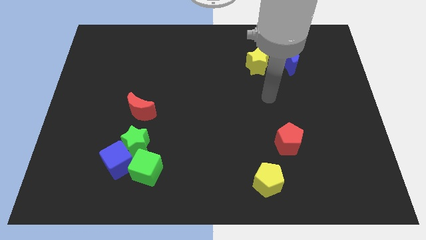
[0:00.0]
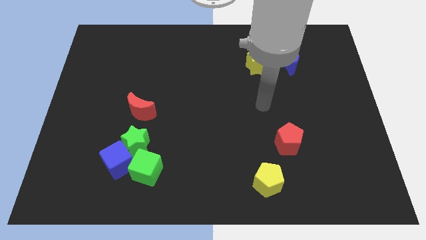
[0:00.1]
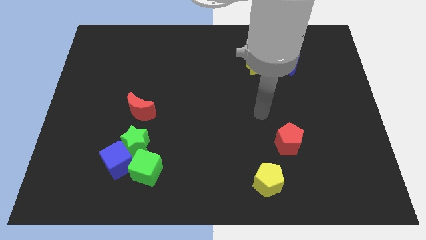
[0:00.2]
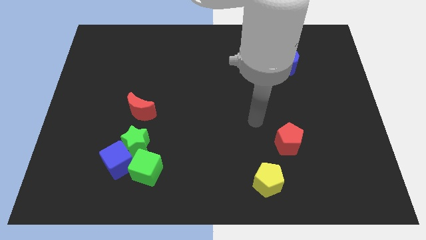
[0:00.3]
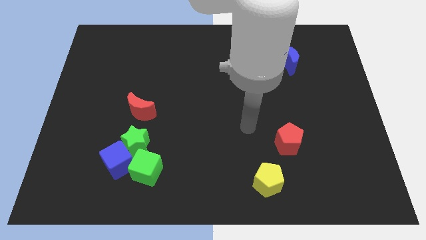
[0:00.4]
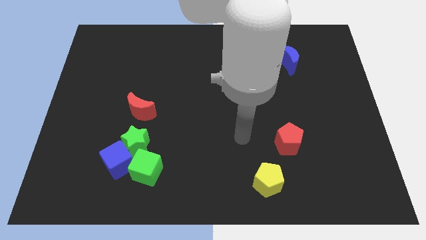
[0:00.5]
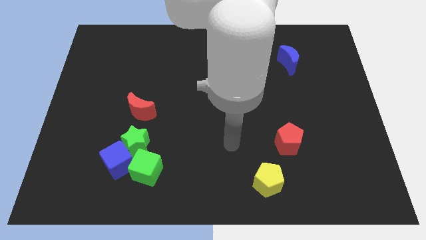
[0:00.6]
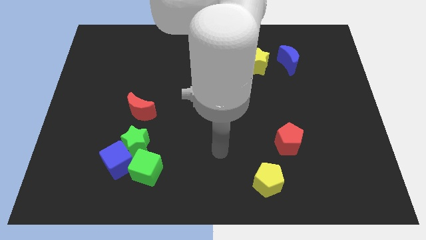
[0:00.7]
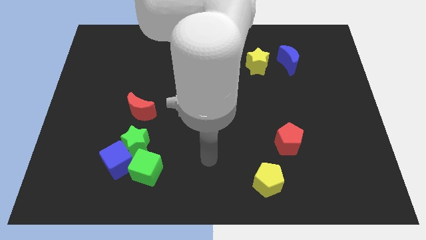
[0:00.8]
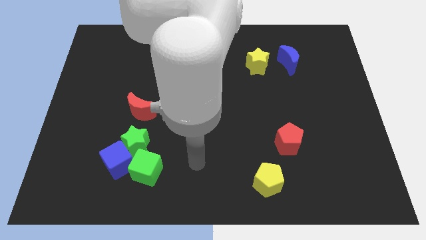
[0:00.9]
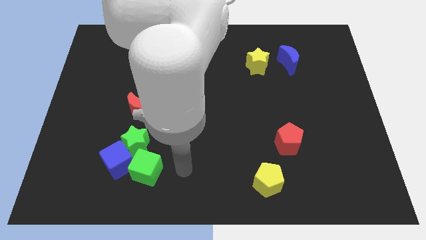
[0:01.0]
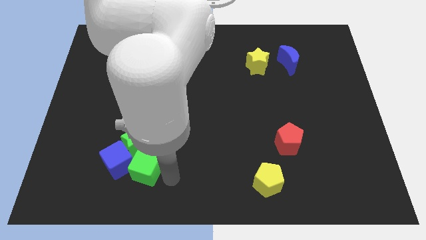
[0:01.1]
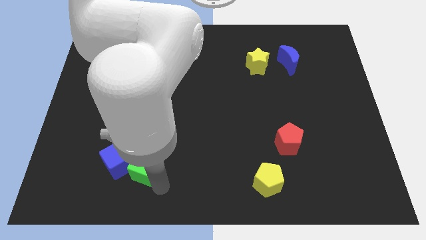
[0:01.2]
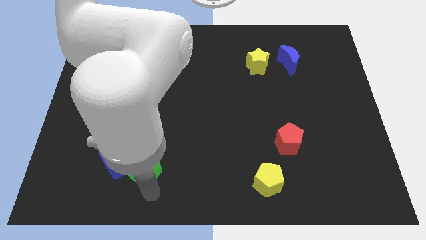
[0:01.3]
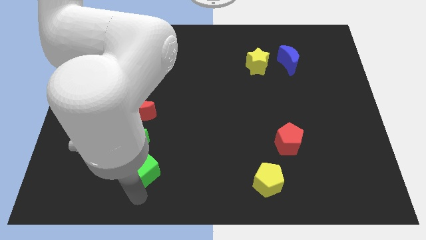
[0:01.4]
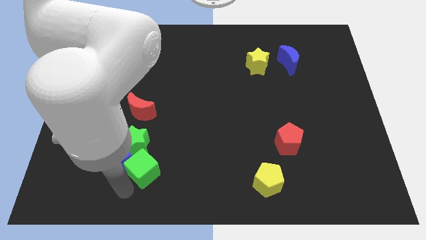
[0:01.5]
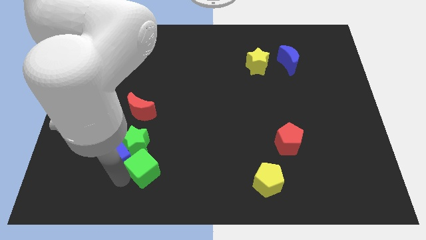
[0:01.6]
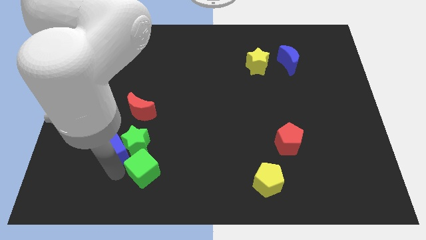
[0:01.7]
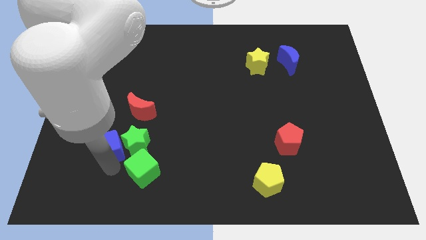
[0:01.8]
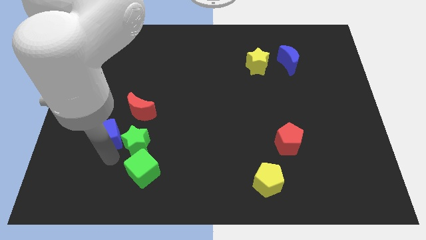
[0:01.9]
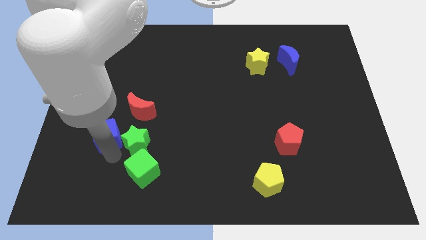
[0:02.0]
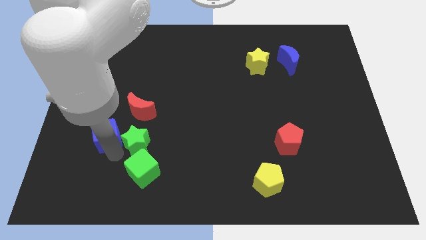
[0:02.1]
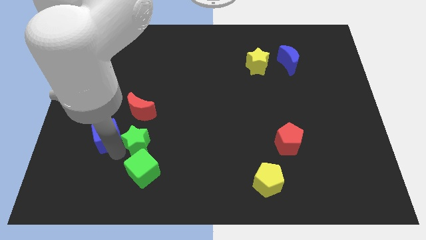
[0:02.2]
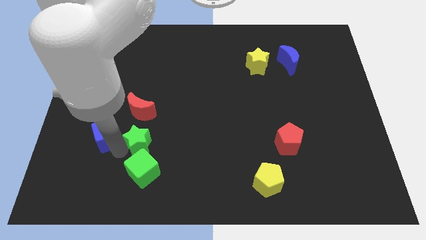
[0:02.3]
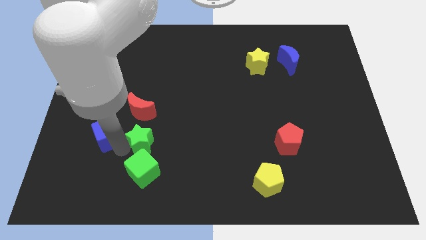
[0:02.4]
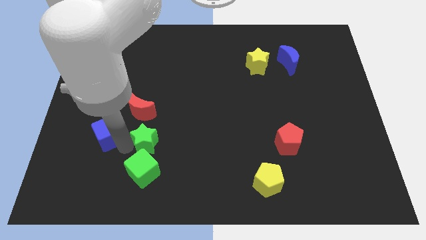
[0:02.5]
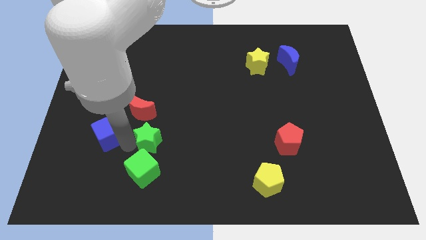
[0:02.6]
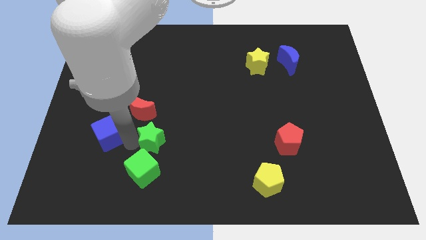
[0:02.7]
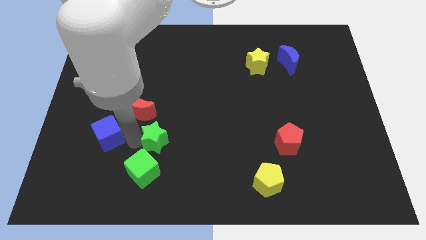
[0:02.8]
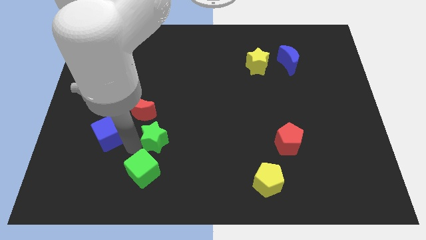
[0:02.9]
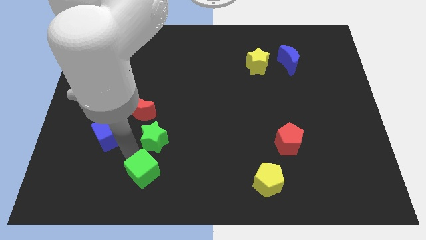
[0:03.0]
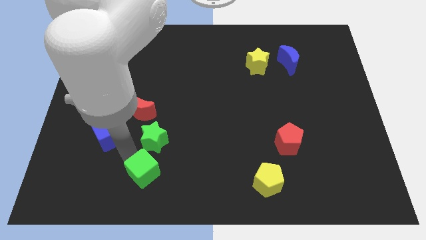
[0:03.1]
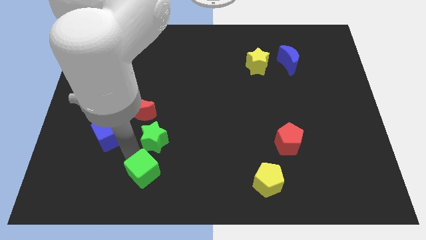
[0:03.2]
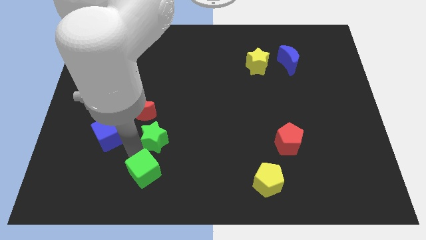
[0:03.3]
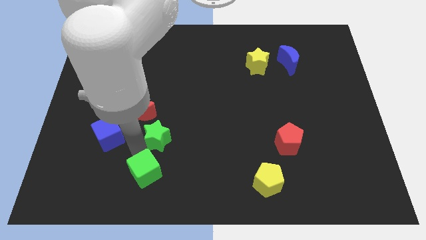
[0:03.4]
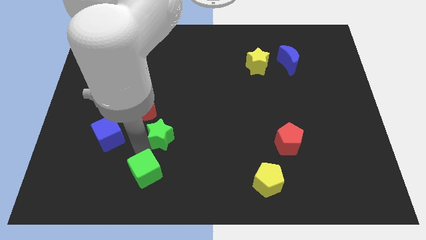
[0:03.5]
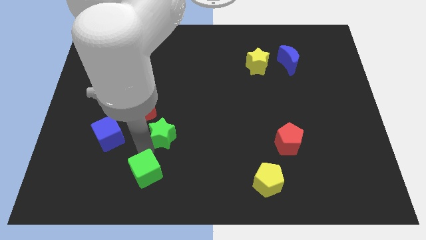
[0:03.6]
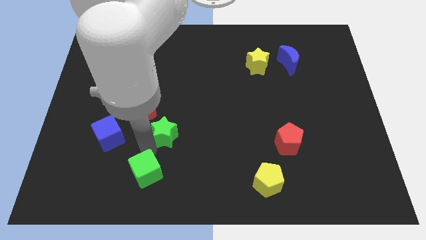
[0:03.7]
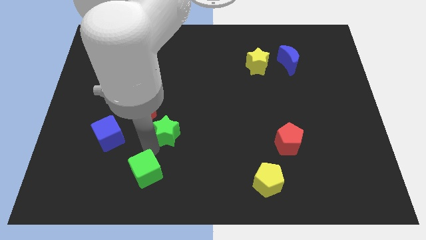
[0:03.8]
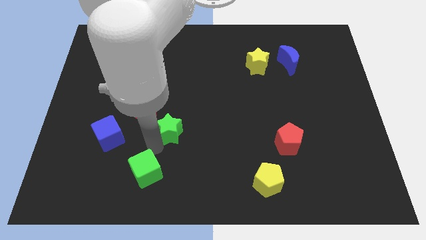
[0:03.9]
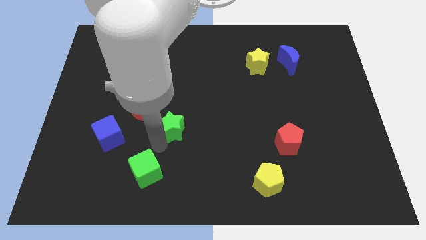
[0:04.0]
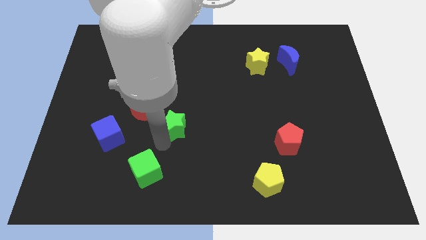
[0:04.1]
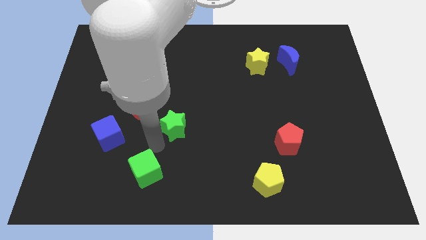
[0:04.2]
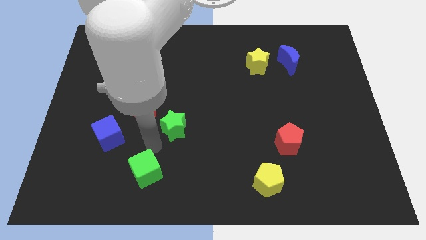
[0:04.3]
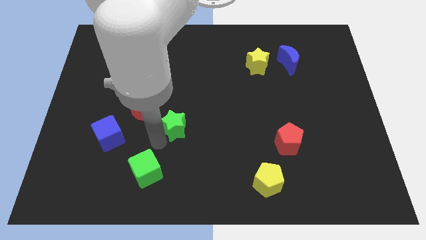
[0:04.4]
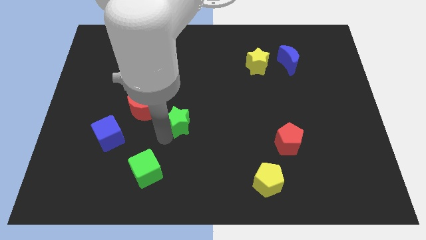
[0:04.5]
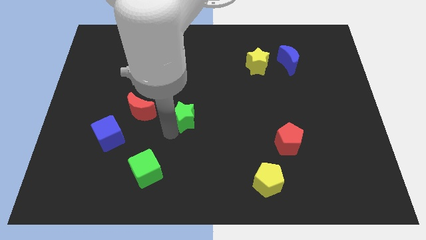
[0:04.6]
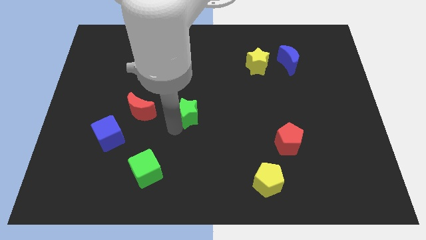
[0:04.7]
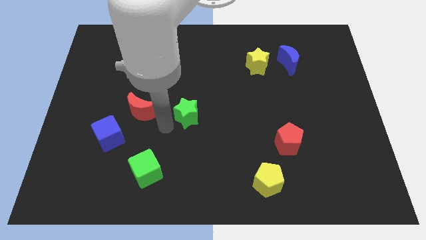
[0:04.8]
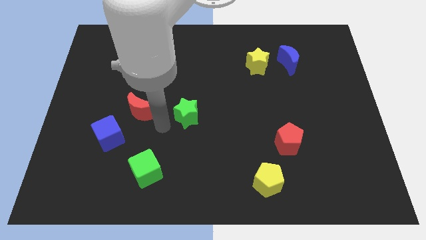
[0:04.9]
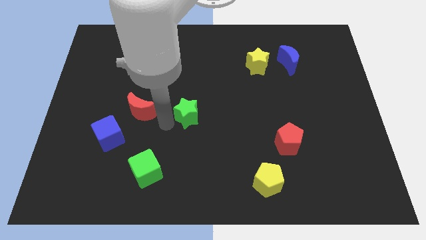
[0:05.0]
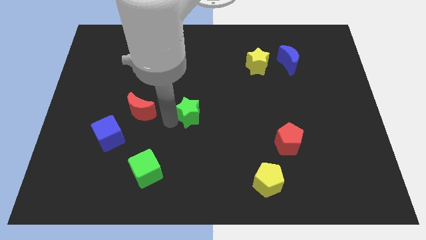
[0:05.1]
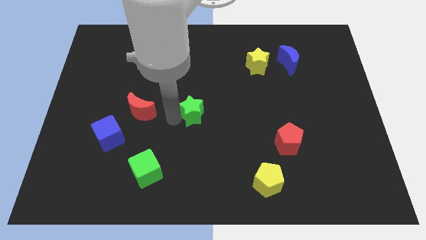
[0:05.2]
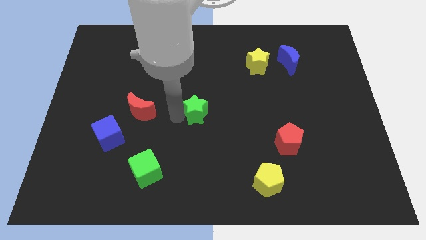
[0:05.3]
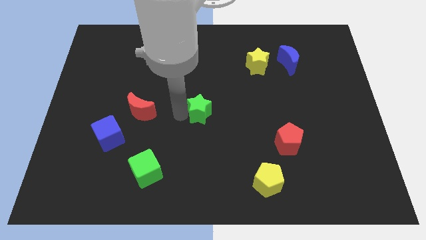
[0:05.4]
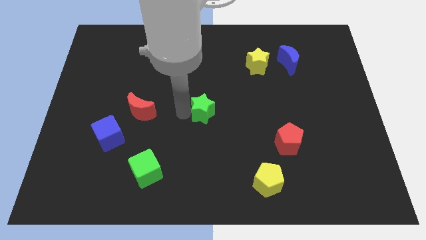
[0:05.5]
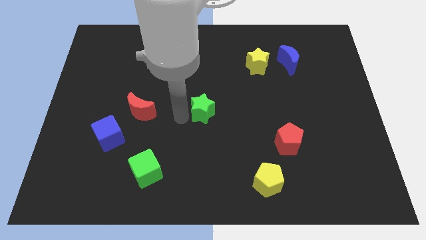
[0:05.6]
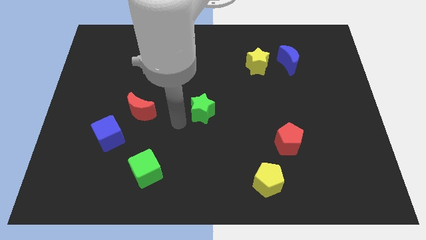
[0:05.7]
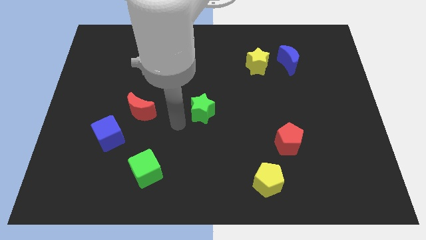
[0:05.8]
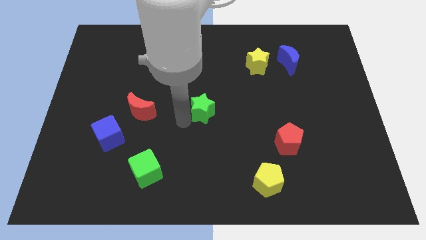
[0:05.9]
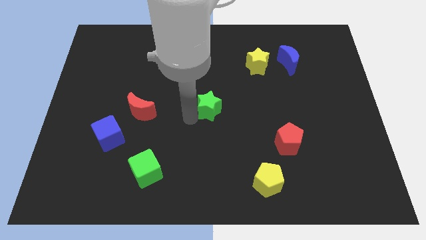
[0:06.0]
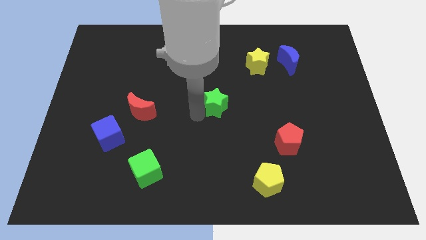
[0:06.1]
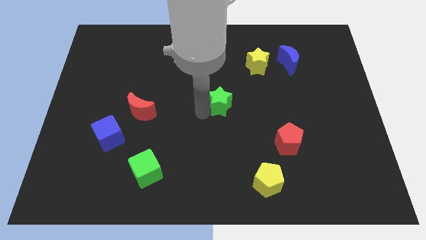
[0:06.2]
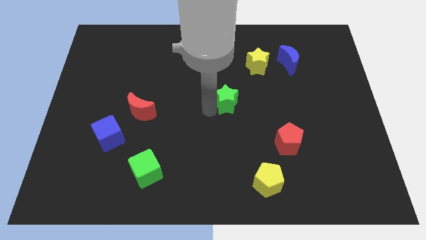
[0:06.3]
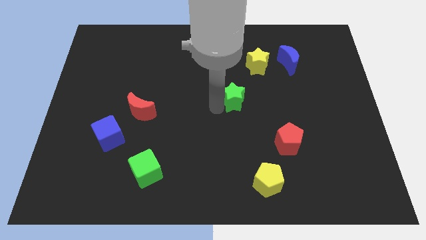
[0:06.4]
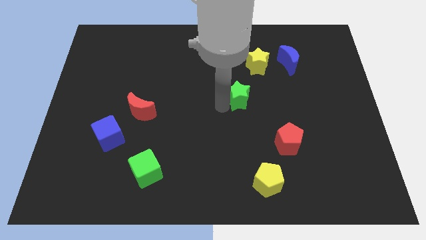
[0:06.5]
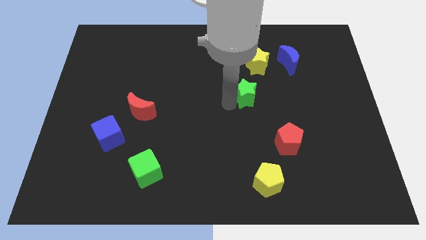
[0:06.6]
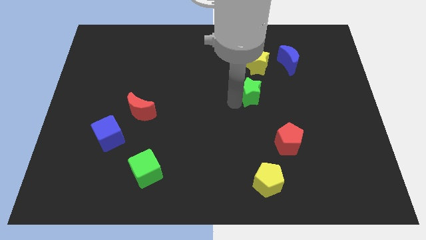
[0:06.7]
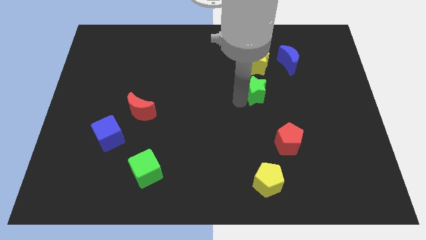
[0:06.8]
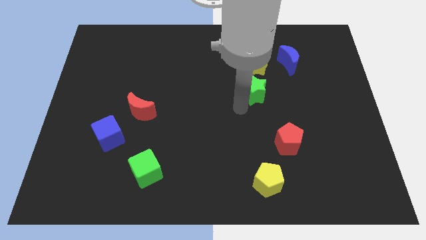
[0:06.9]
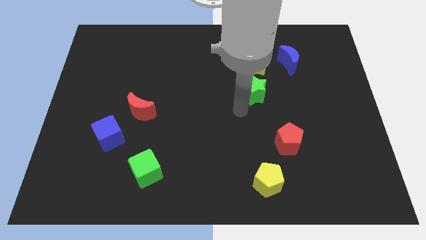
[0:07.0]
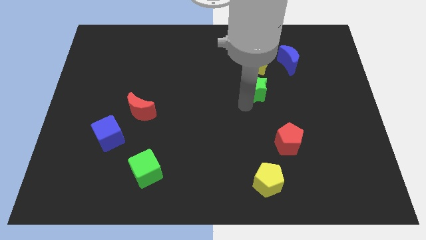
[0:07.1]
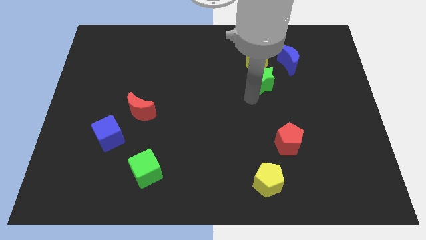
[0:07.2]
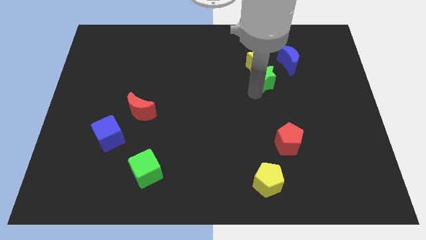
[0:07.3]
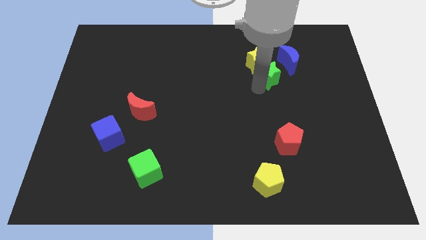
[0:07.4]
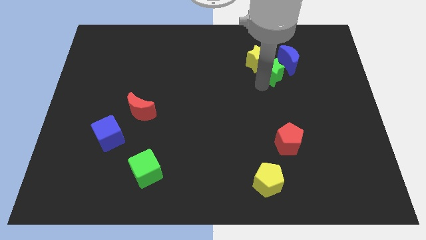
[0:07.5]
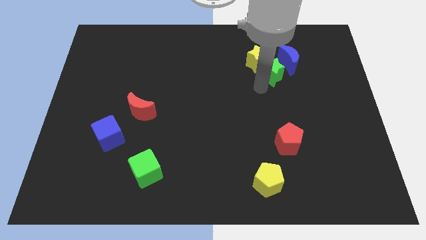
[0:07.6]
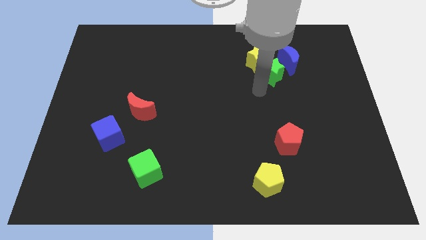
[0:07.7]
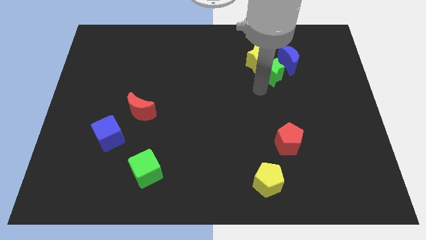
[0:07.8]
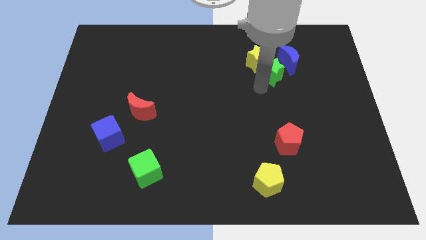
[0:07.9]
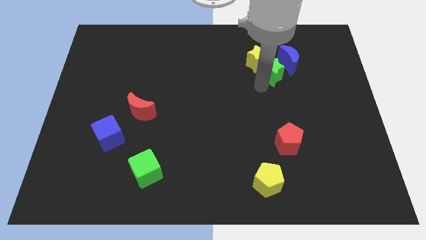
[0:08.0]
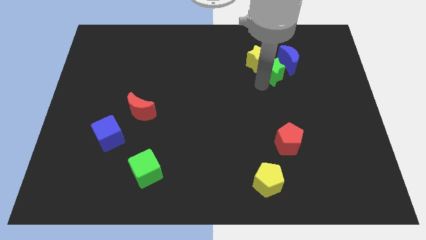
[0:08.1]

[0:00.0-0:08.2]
put the green star next to the blue moon
